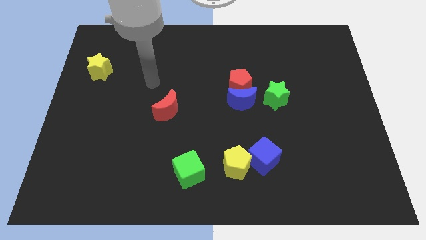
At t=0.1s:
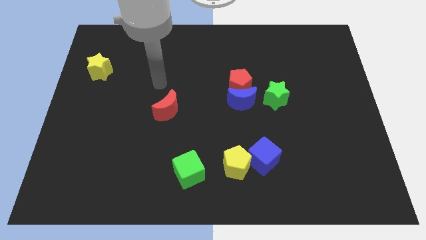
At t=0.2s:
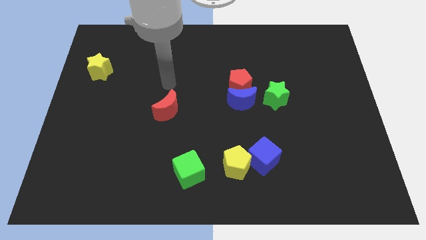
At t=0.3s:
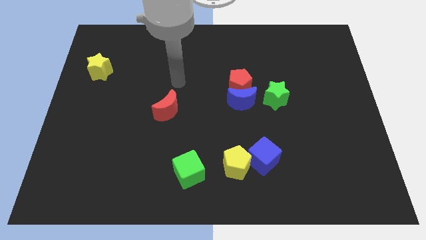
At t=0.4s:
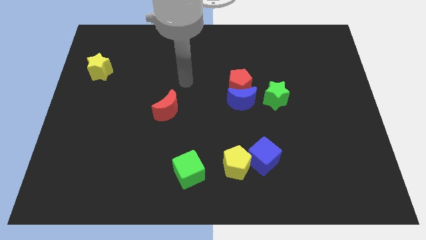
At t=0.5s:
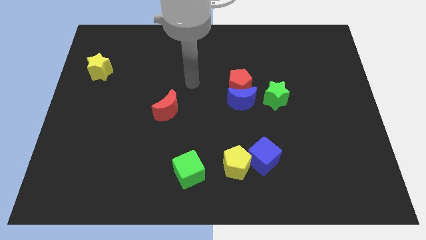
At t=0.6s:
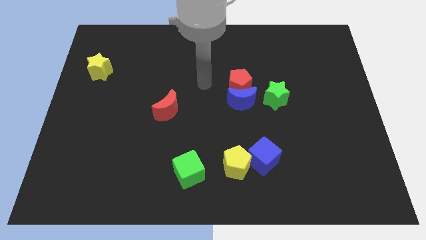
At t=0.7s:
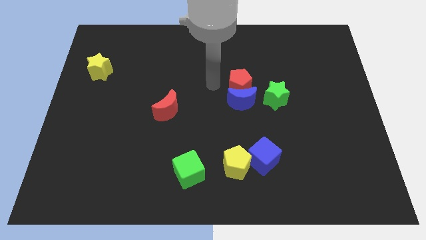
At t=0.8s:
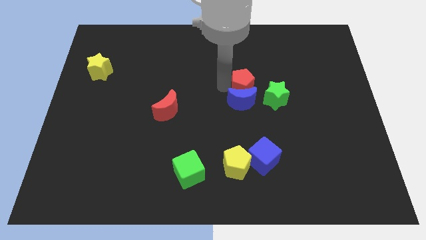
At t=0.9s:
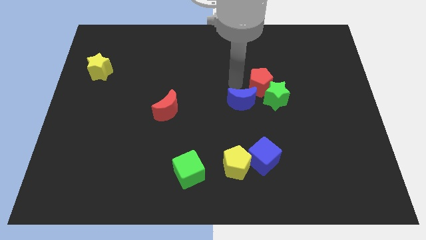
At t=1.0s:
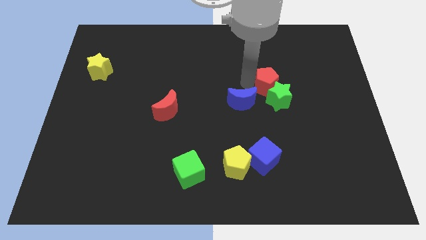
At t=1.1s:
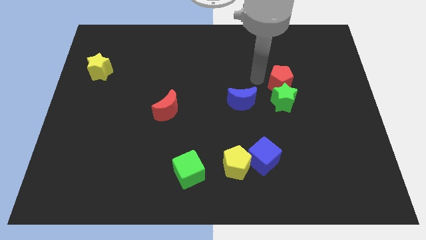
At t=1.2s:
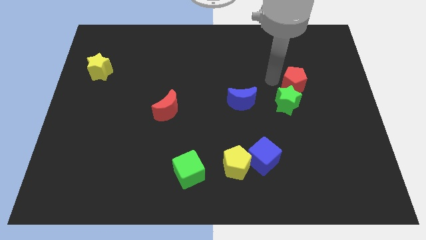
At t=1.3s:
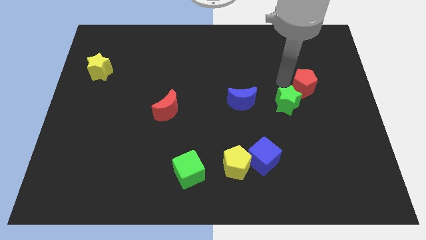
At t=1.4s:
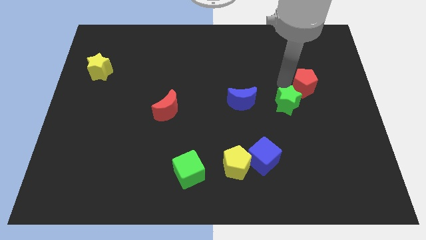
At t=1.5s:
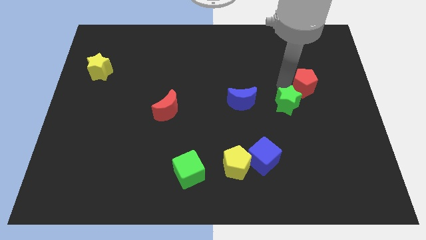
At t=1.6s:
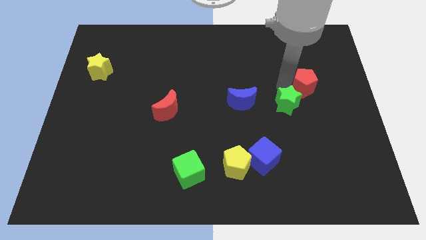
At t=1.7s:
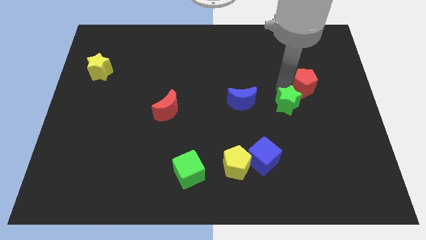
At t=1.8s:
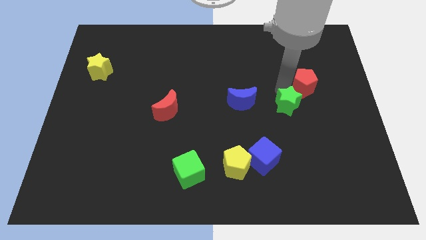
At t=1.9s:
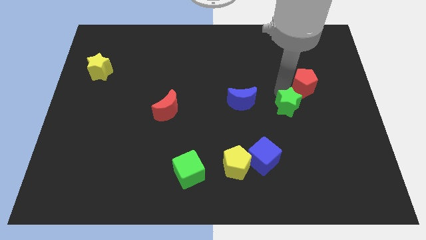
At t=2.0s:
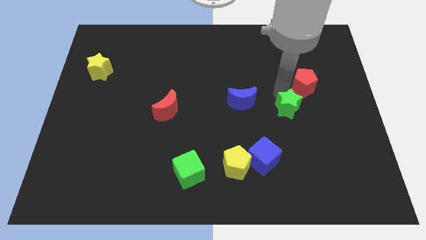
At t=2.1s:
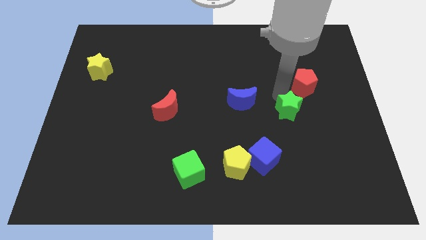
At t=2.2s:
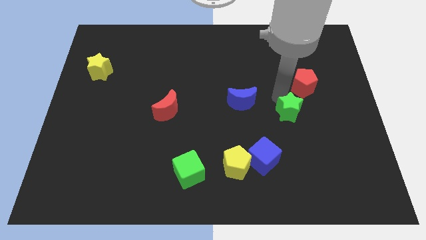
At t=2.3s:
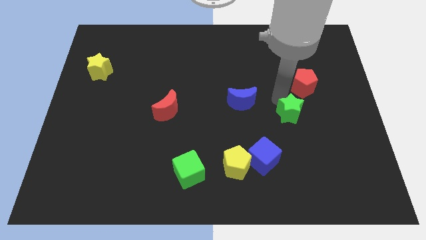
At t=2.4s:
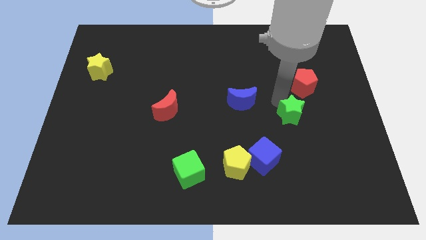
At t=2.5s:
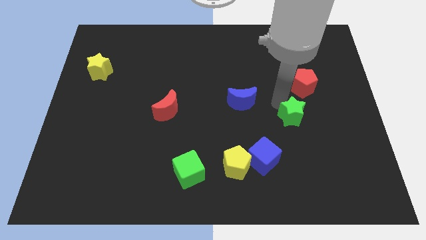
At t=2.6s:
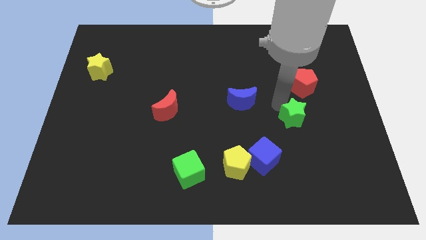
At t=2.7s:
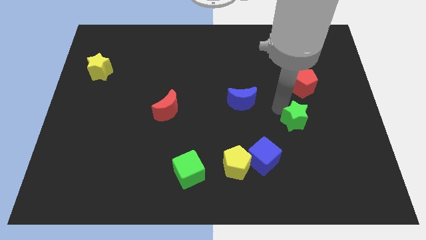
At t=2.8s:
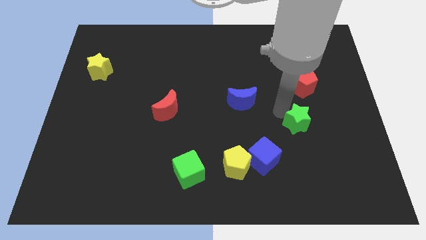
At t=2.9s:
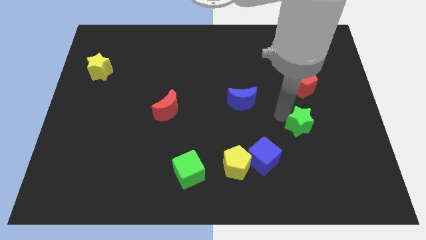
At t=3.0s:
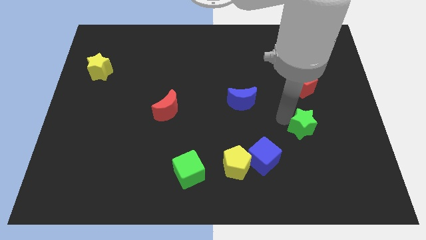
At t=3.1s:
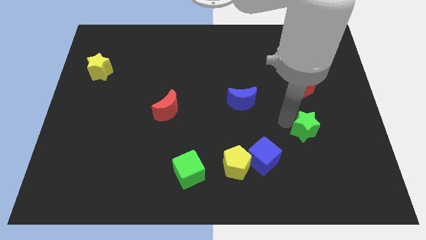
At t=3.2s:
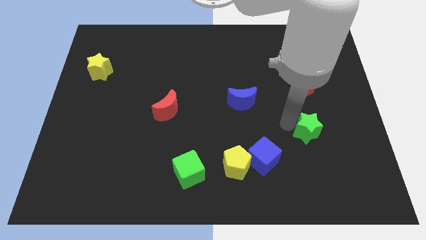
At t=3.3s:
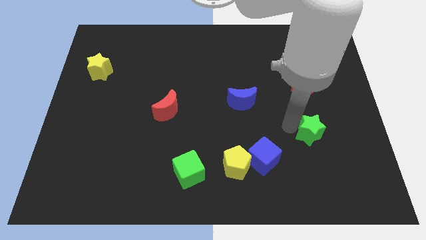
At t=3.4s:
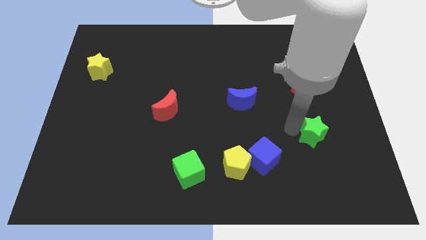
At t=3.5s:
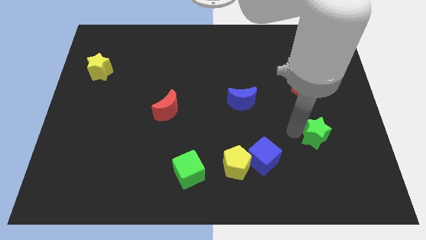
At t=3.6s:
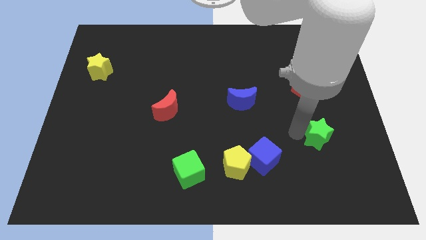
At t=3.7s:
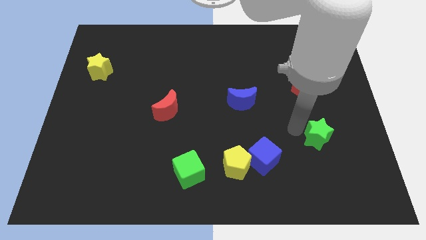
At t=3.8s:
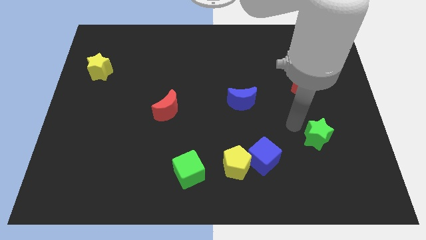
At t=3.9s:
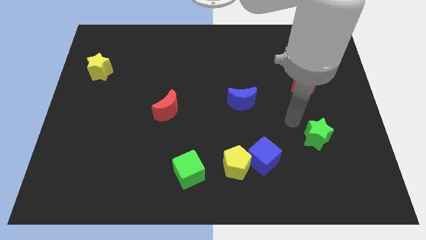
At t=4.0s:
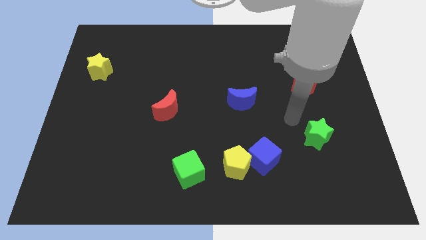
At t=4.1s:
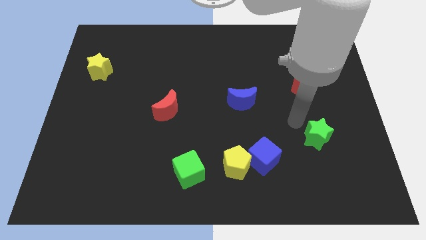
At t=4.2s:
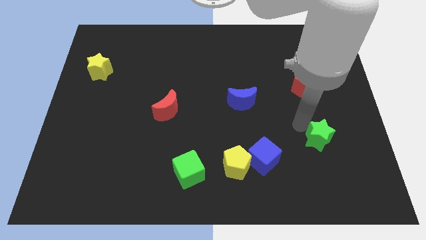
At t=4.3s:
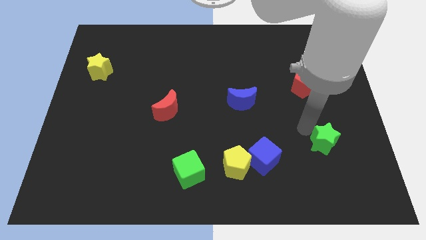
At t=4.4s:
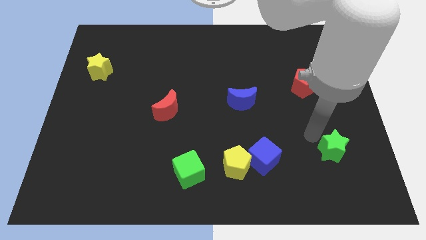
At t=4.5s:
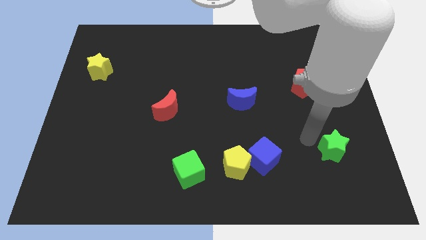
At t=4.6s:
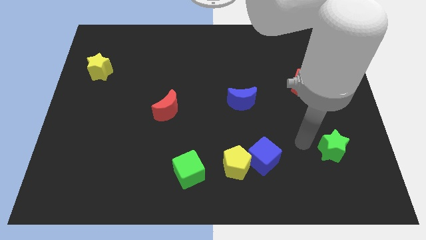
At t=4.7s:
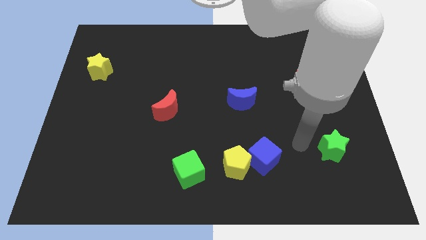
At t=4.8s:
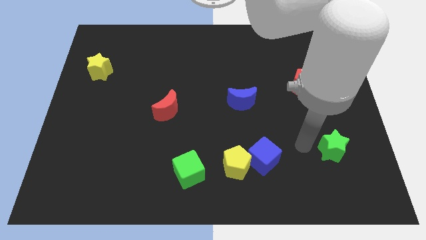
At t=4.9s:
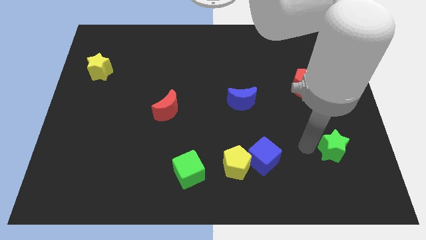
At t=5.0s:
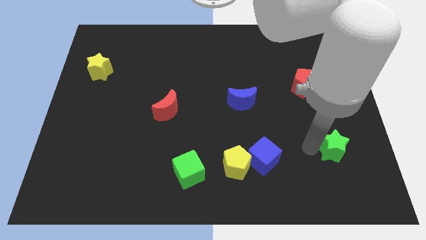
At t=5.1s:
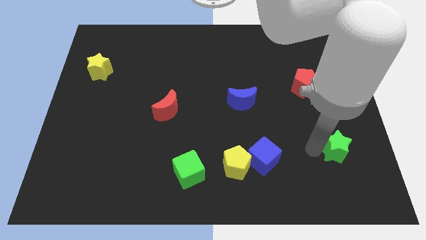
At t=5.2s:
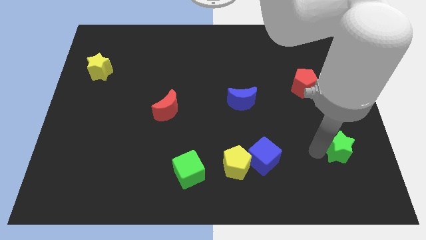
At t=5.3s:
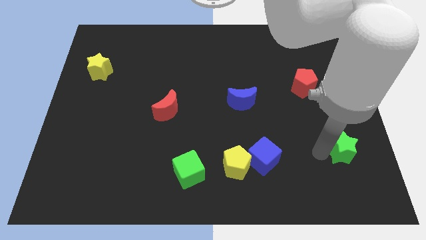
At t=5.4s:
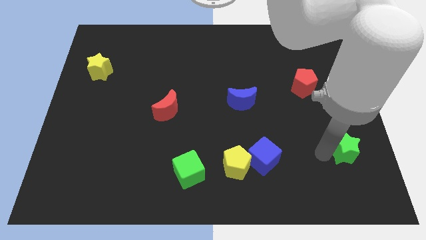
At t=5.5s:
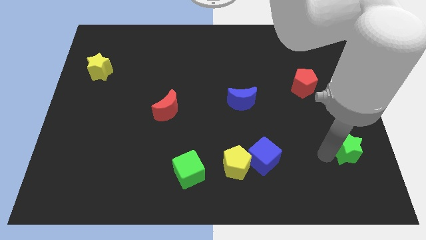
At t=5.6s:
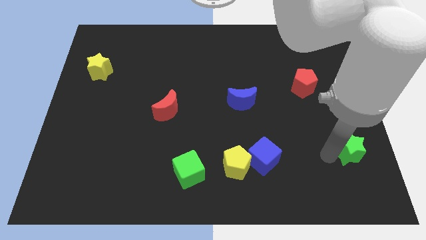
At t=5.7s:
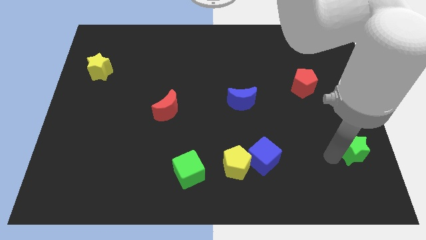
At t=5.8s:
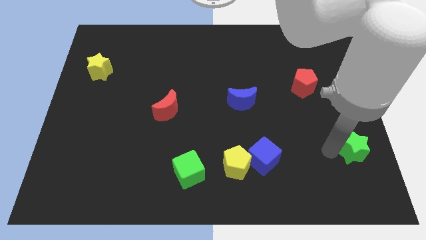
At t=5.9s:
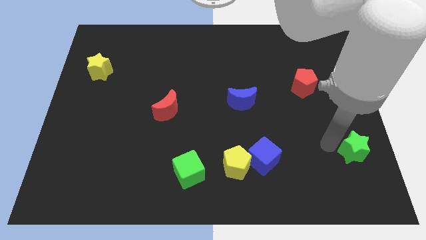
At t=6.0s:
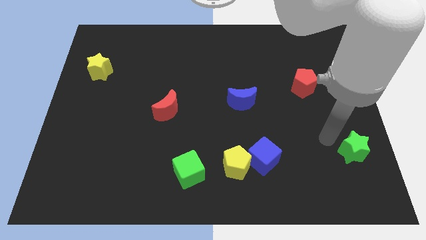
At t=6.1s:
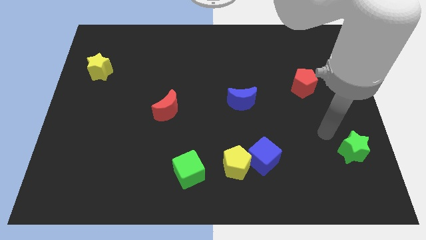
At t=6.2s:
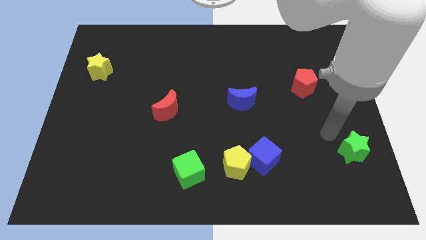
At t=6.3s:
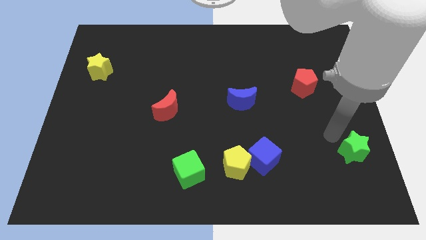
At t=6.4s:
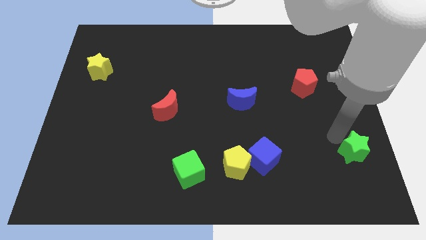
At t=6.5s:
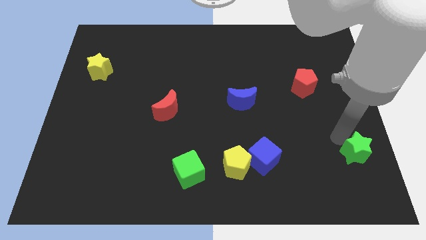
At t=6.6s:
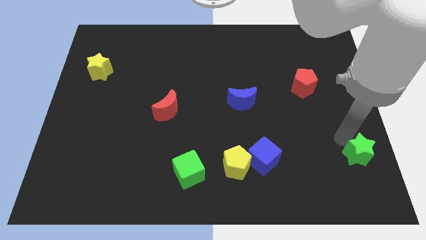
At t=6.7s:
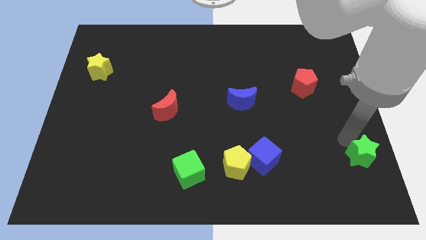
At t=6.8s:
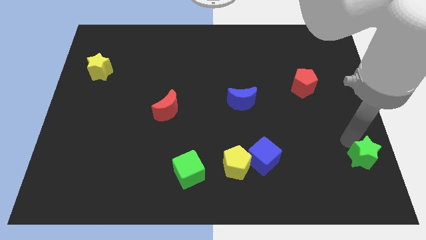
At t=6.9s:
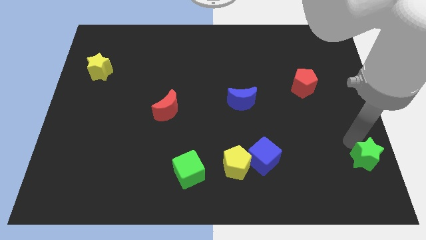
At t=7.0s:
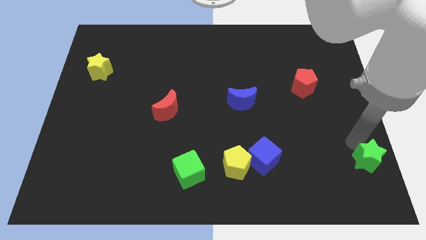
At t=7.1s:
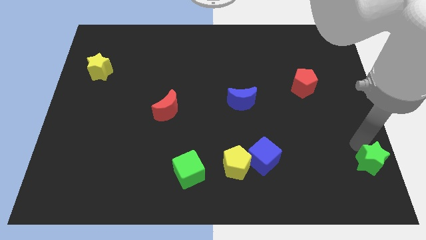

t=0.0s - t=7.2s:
put the green star to the bottom right
